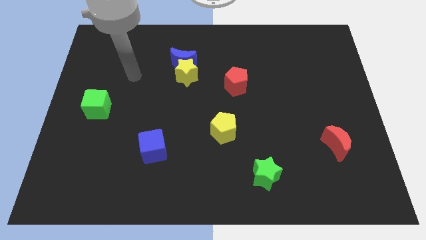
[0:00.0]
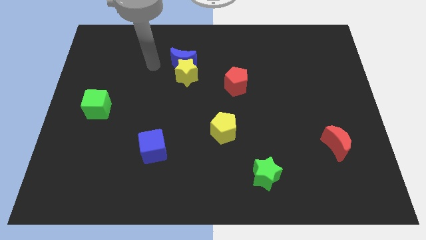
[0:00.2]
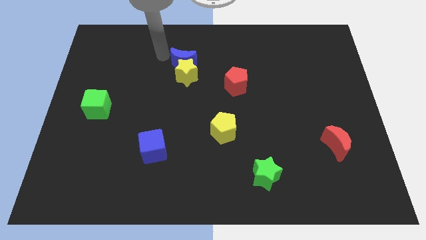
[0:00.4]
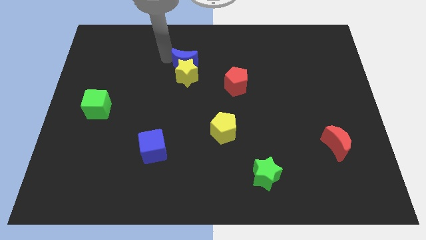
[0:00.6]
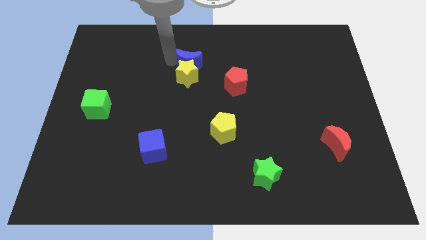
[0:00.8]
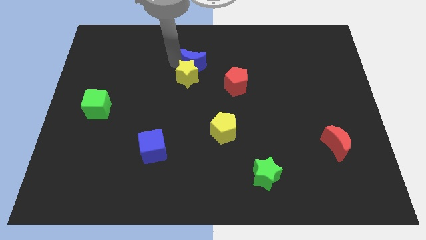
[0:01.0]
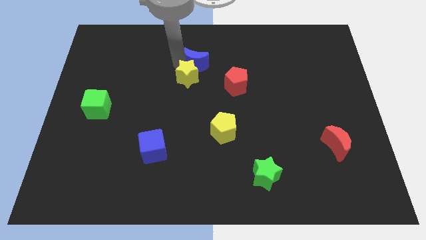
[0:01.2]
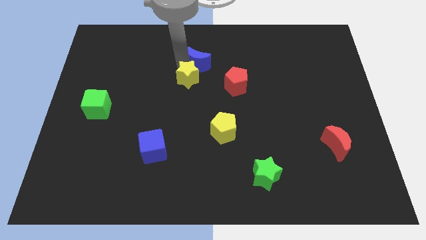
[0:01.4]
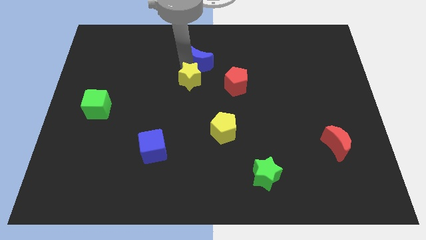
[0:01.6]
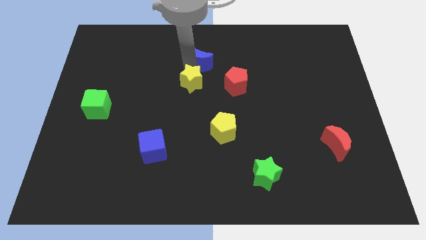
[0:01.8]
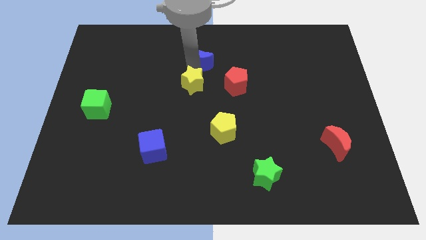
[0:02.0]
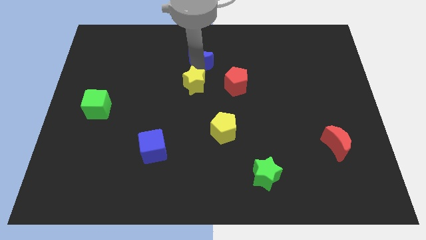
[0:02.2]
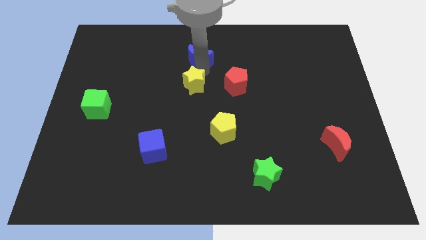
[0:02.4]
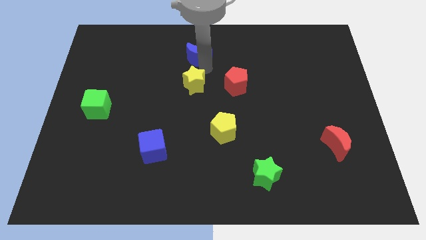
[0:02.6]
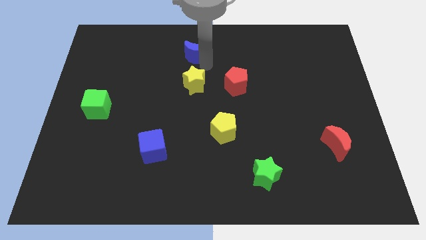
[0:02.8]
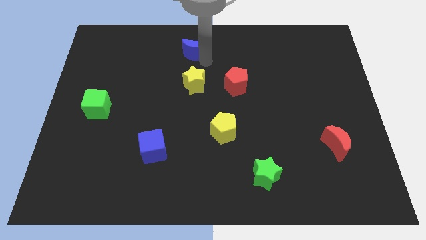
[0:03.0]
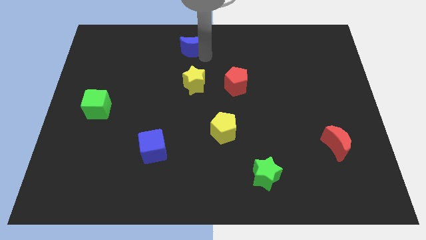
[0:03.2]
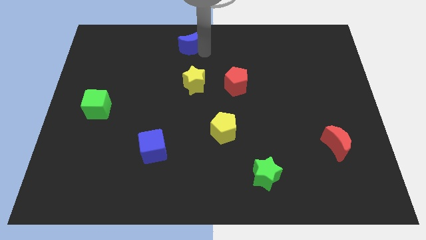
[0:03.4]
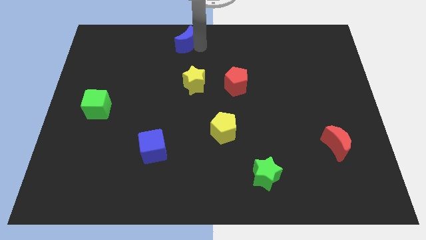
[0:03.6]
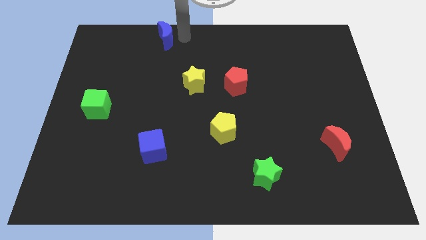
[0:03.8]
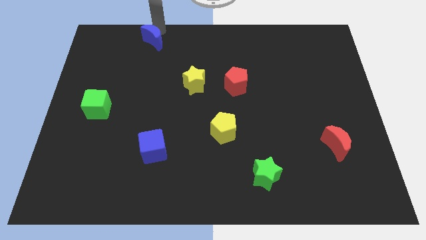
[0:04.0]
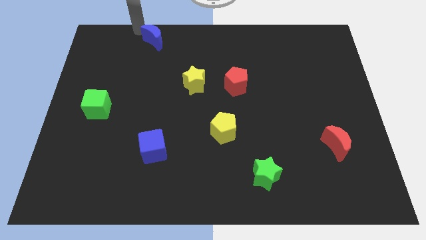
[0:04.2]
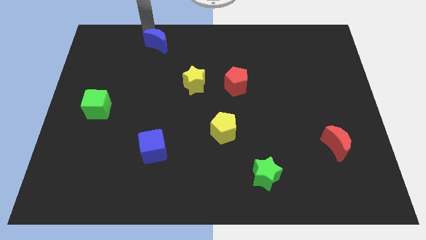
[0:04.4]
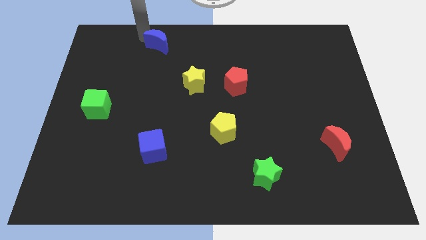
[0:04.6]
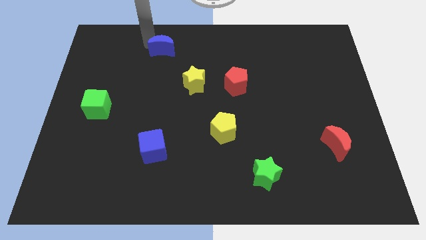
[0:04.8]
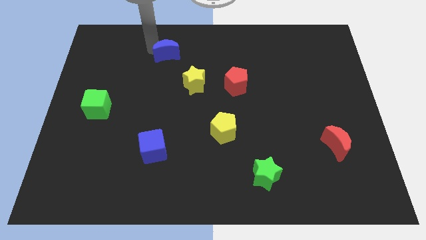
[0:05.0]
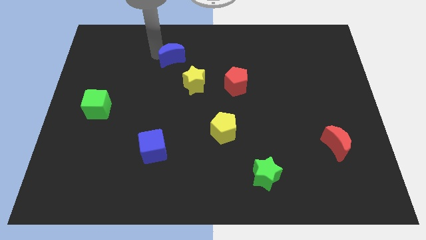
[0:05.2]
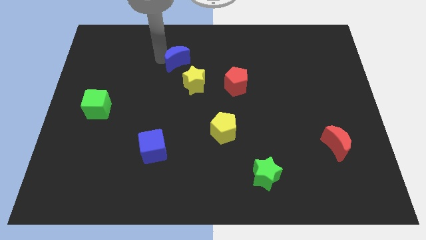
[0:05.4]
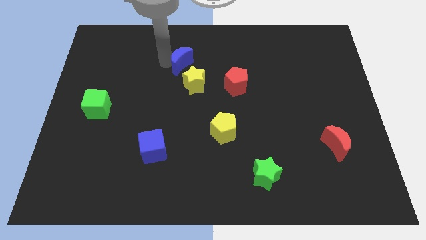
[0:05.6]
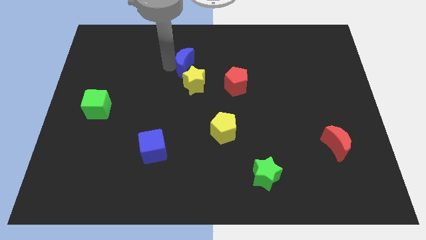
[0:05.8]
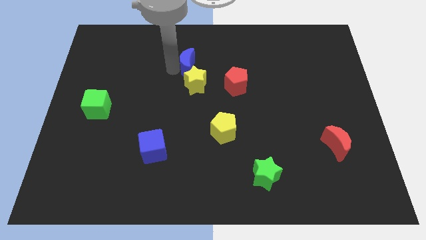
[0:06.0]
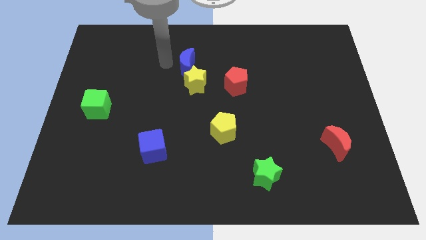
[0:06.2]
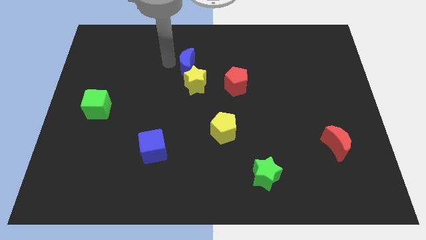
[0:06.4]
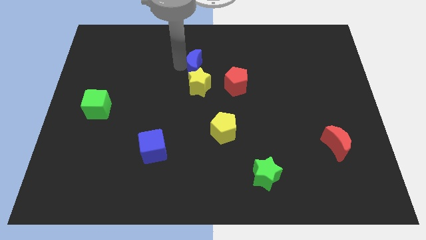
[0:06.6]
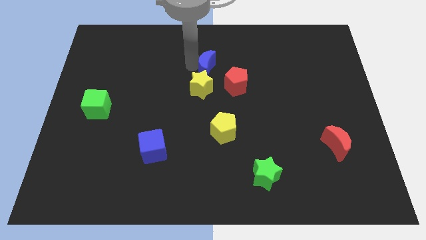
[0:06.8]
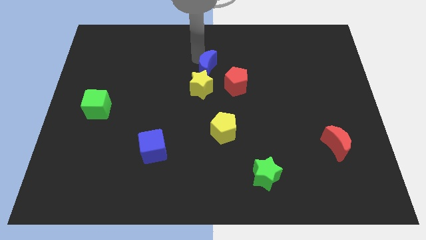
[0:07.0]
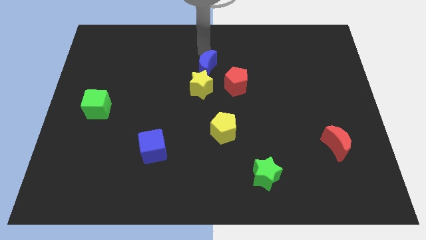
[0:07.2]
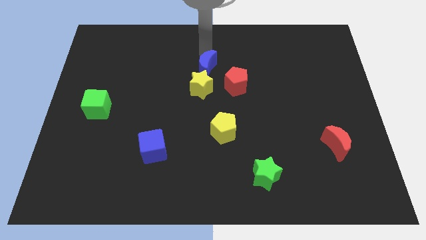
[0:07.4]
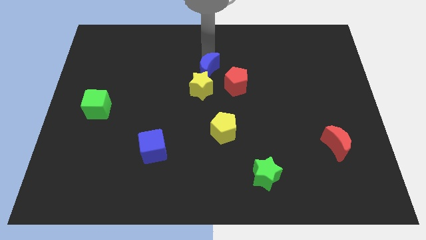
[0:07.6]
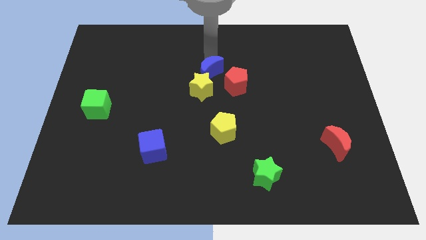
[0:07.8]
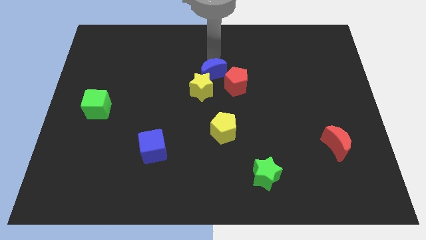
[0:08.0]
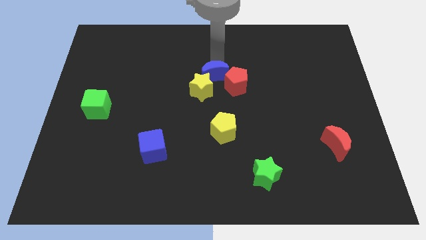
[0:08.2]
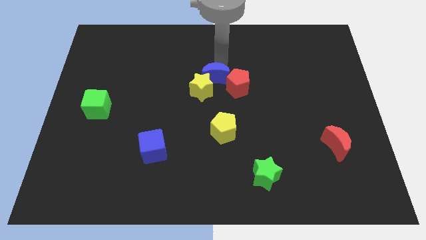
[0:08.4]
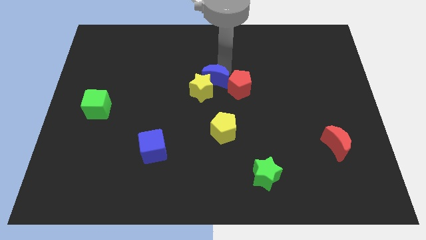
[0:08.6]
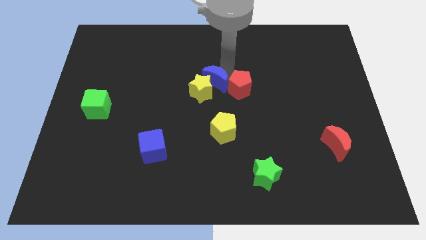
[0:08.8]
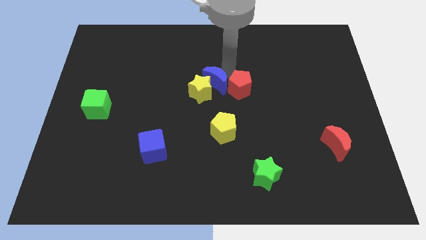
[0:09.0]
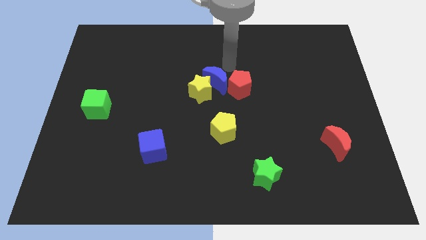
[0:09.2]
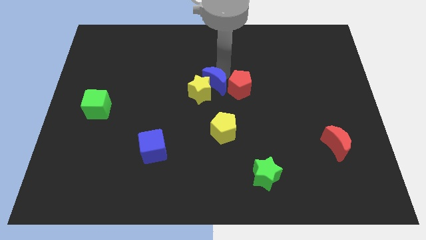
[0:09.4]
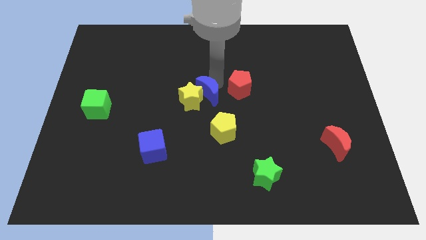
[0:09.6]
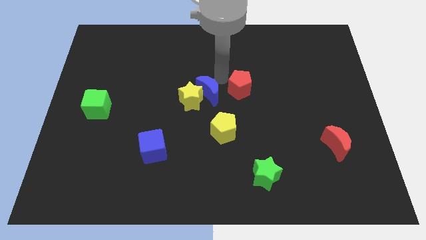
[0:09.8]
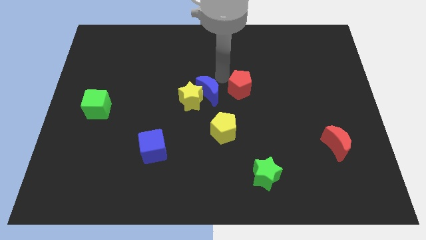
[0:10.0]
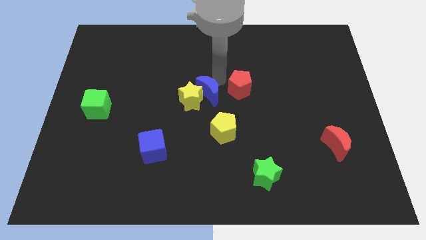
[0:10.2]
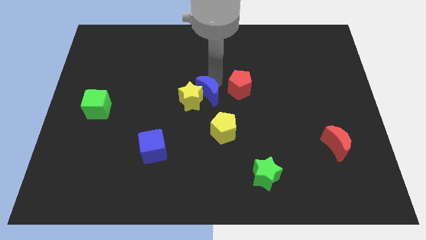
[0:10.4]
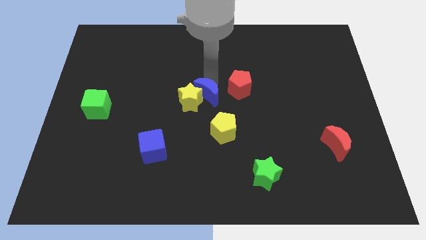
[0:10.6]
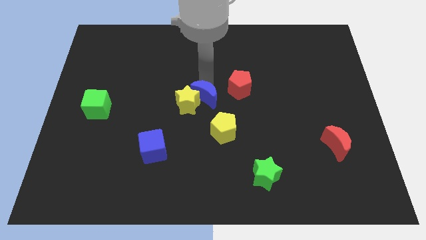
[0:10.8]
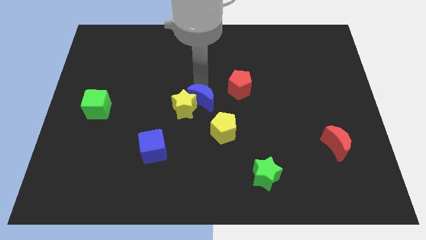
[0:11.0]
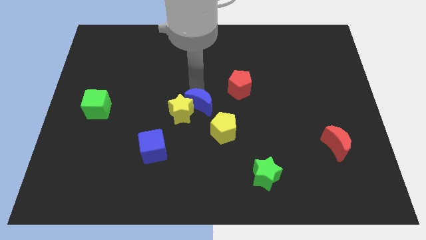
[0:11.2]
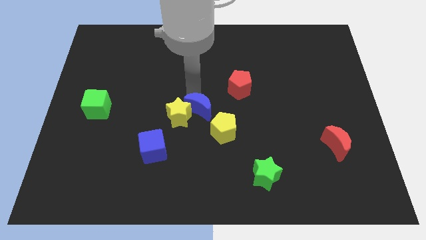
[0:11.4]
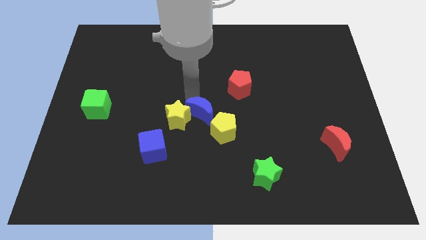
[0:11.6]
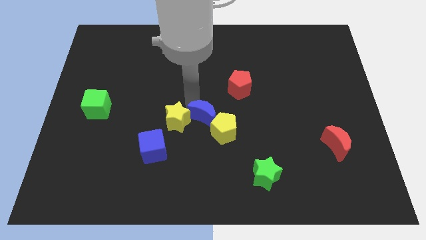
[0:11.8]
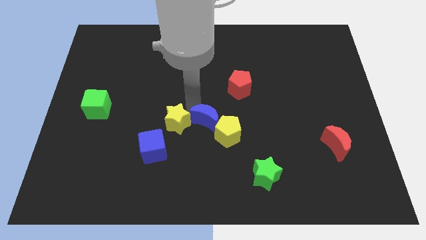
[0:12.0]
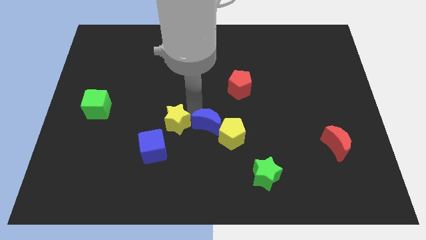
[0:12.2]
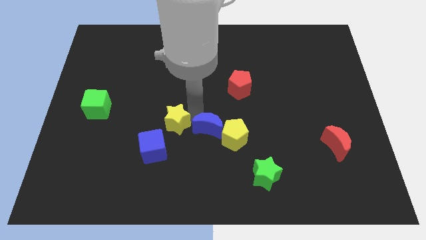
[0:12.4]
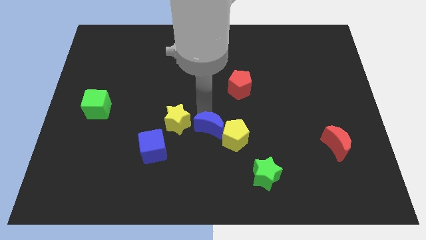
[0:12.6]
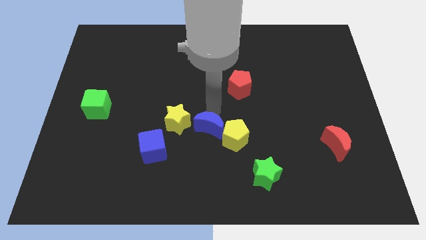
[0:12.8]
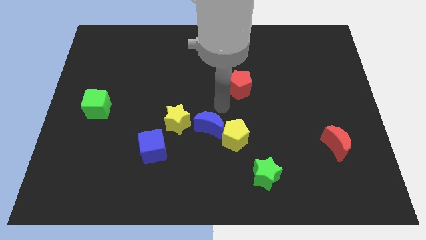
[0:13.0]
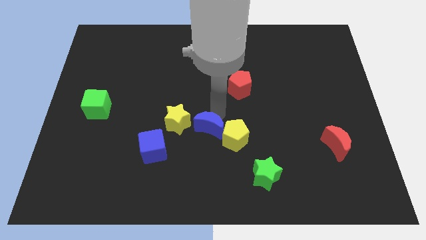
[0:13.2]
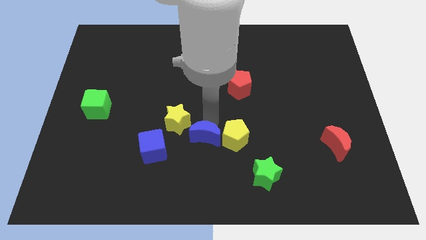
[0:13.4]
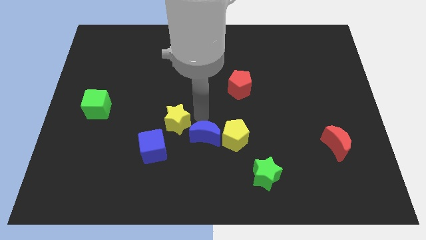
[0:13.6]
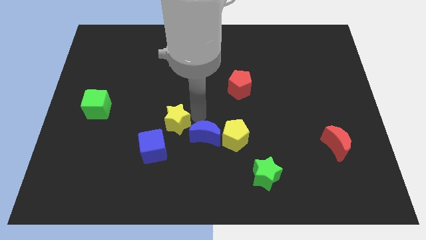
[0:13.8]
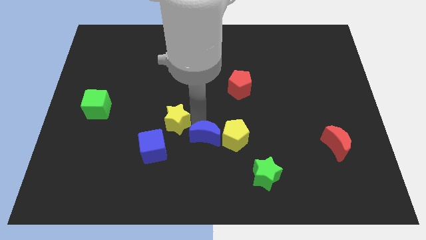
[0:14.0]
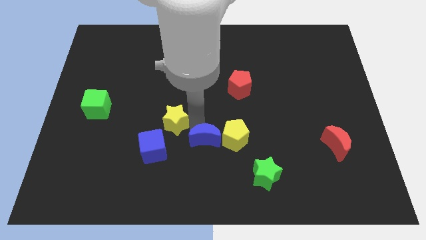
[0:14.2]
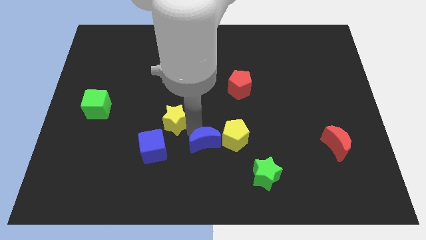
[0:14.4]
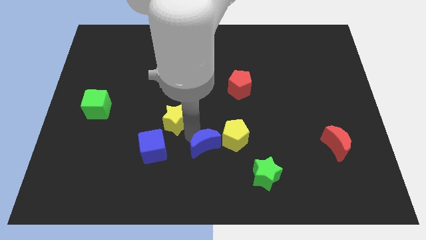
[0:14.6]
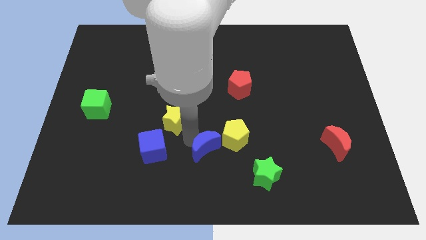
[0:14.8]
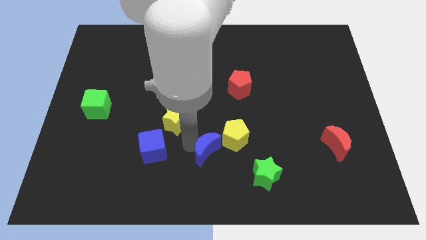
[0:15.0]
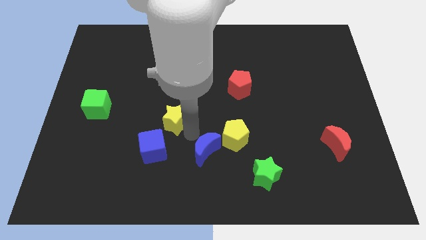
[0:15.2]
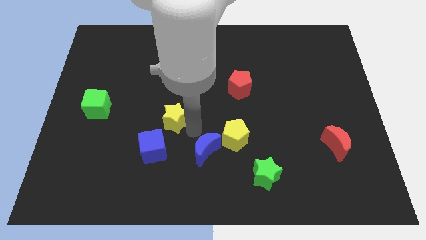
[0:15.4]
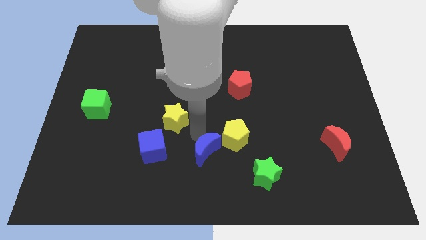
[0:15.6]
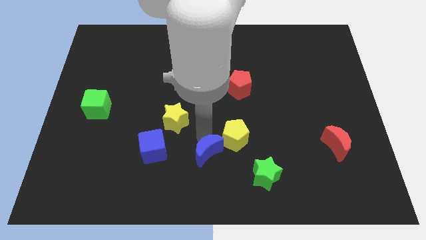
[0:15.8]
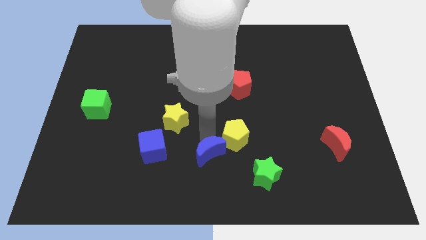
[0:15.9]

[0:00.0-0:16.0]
push the blue moon to the bottom side
